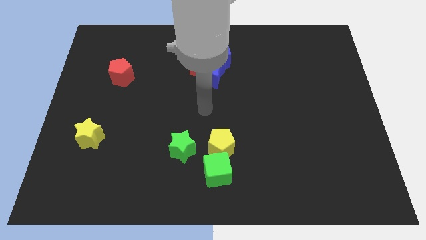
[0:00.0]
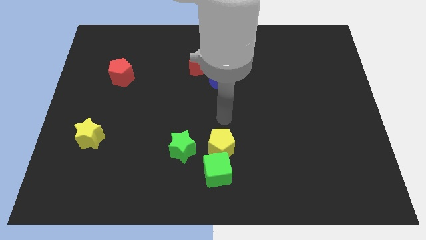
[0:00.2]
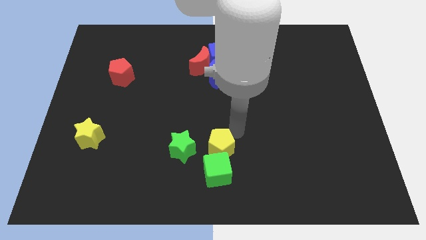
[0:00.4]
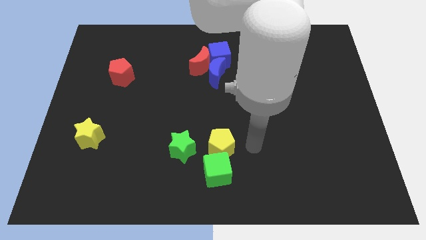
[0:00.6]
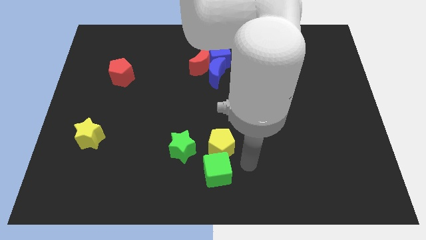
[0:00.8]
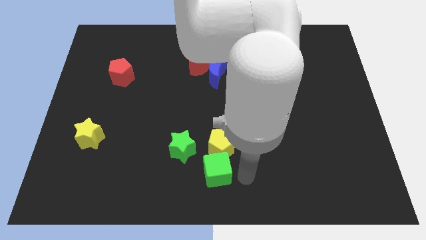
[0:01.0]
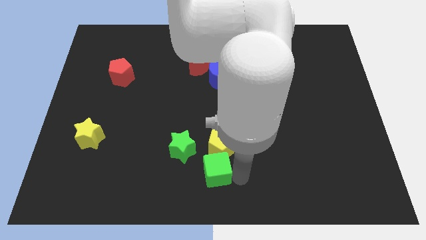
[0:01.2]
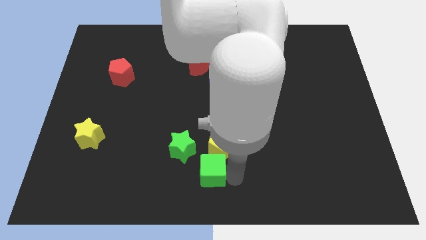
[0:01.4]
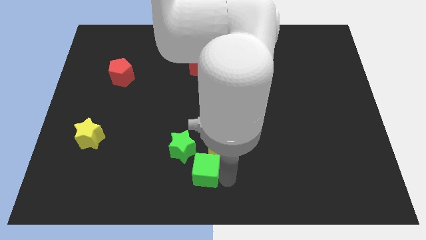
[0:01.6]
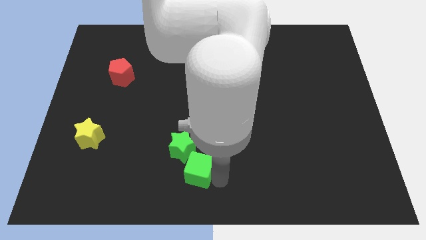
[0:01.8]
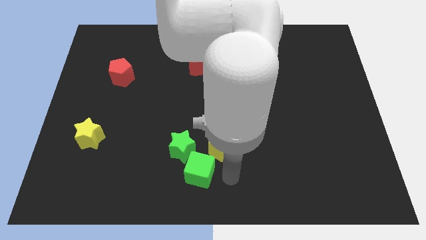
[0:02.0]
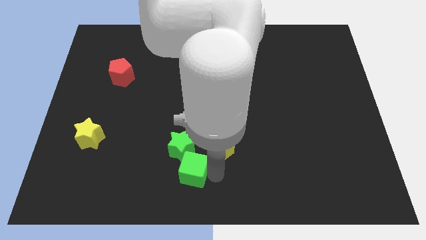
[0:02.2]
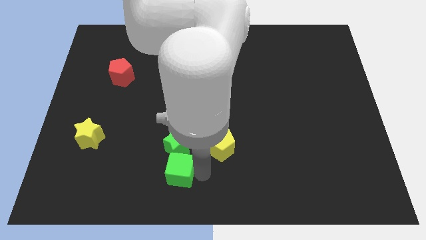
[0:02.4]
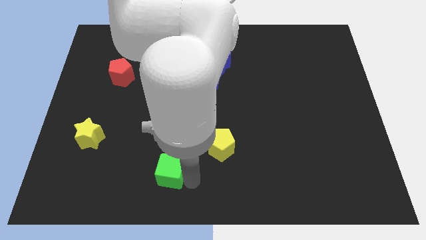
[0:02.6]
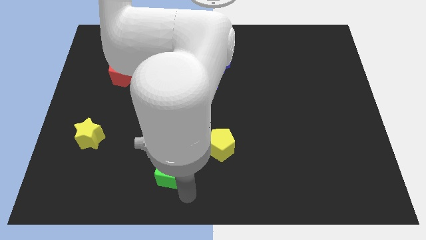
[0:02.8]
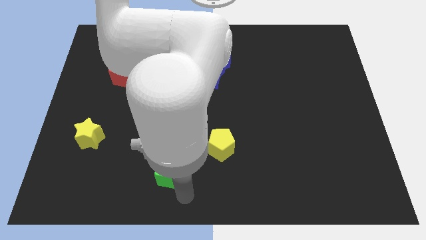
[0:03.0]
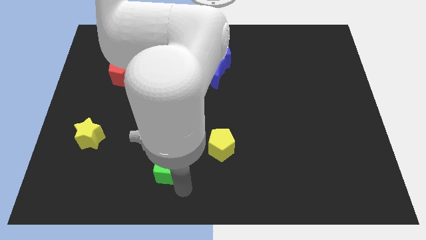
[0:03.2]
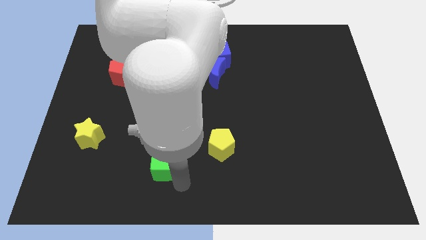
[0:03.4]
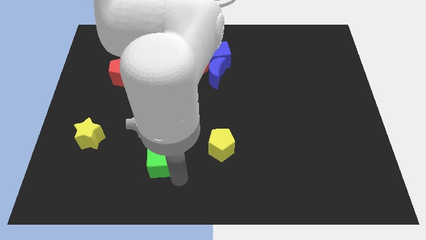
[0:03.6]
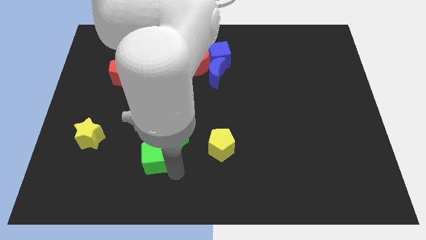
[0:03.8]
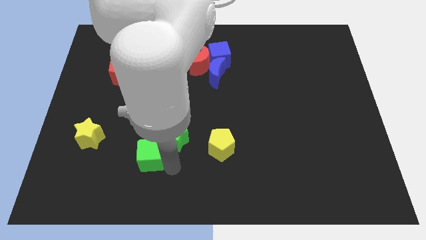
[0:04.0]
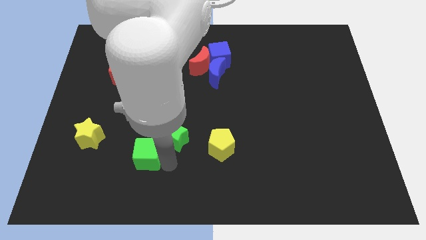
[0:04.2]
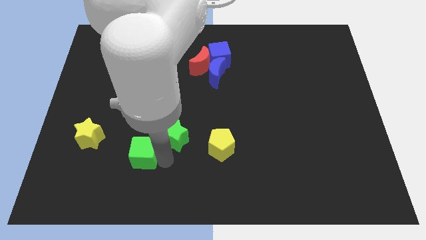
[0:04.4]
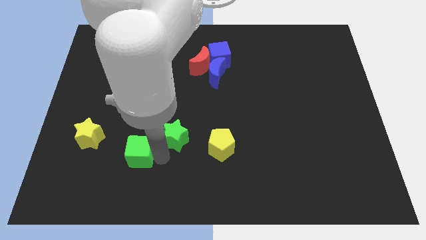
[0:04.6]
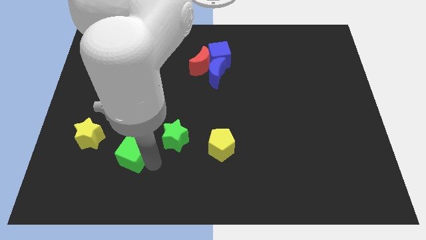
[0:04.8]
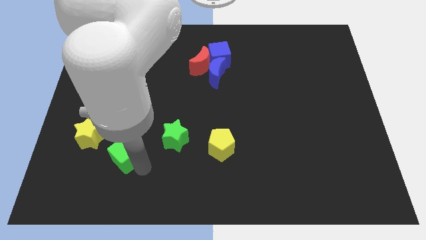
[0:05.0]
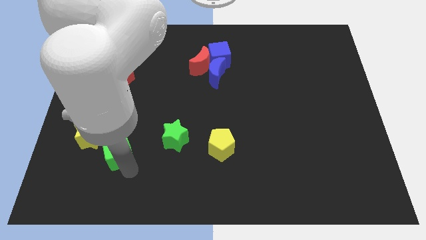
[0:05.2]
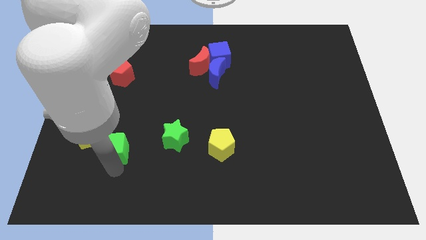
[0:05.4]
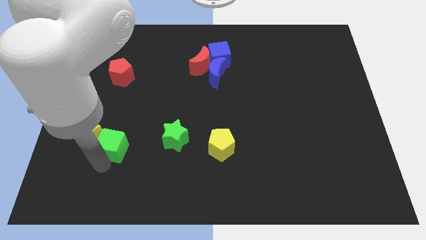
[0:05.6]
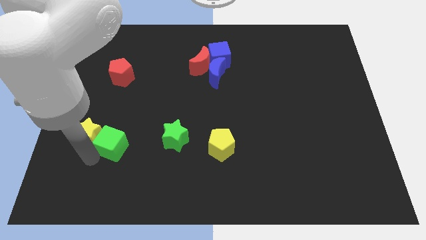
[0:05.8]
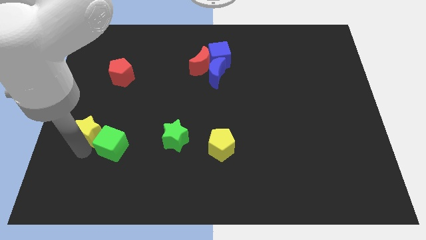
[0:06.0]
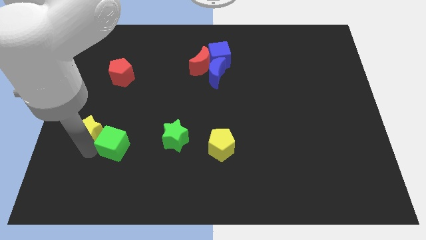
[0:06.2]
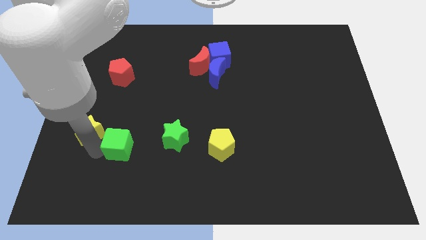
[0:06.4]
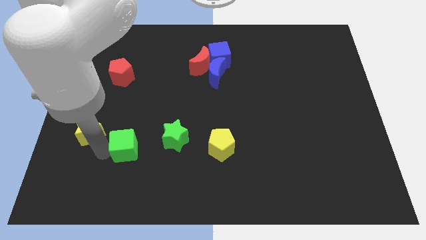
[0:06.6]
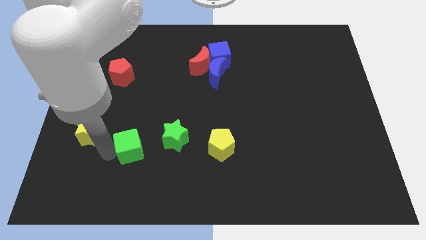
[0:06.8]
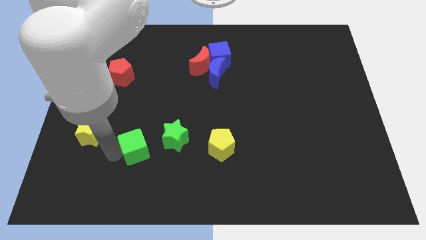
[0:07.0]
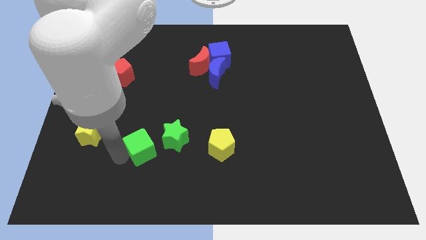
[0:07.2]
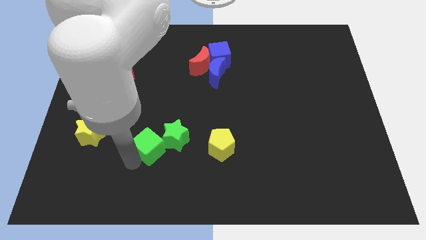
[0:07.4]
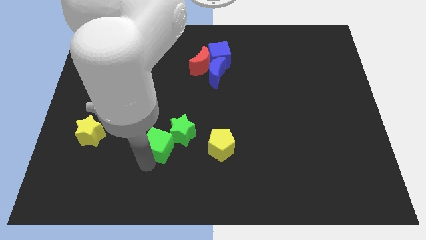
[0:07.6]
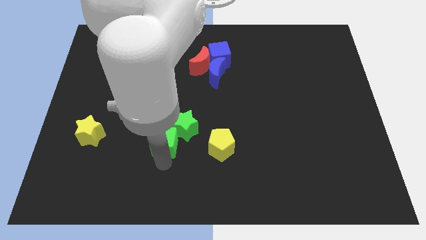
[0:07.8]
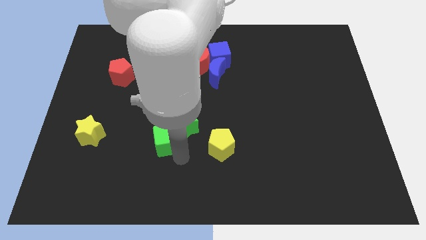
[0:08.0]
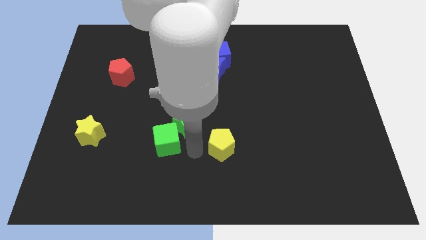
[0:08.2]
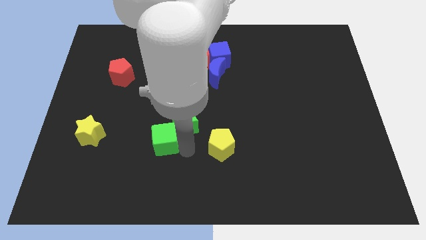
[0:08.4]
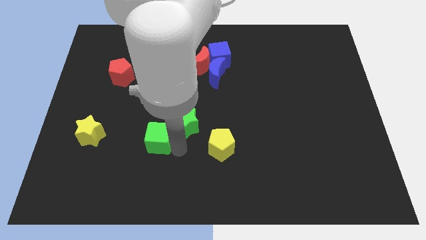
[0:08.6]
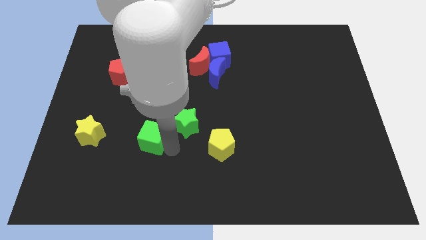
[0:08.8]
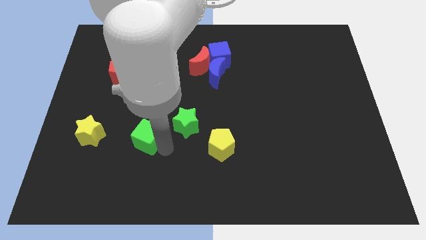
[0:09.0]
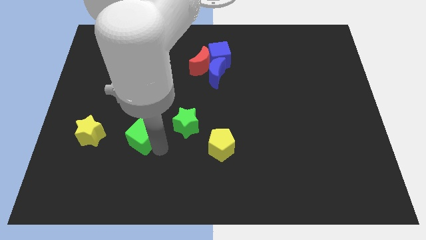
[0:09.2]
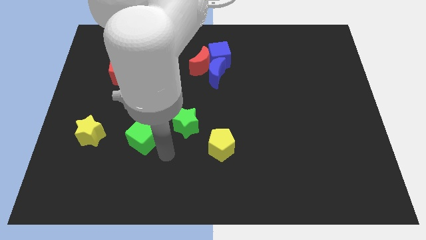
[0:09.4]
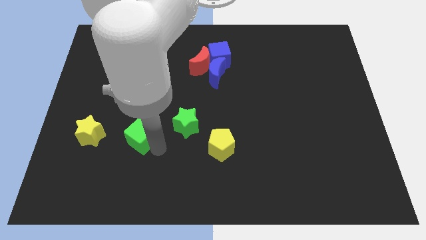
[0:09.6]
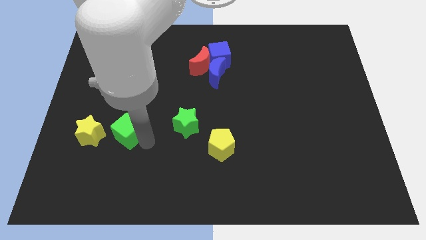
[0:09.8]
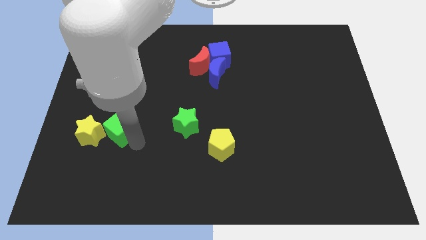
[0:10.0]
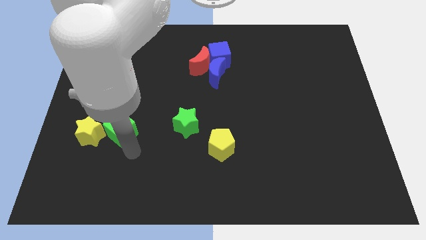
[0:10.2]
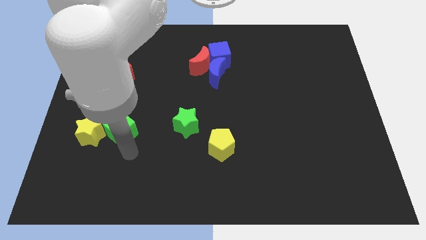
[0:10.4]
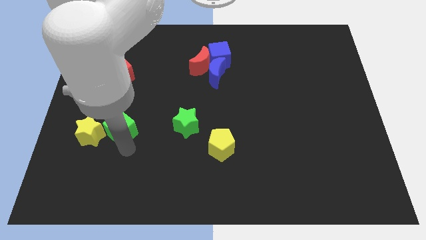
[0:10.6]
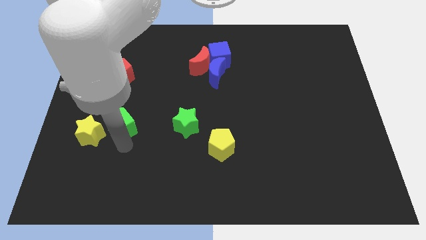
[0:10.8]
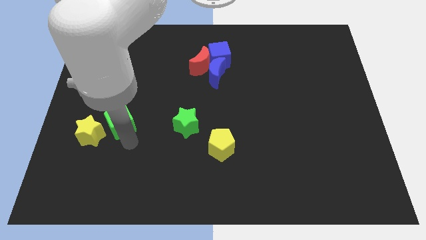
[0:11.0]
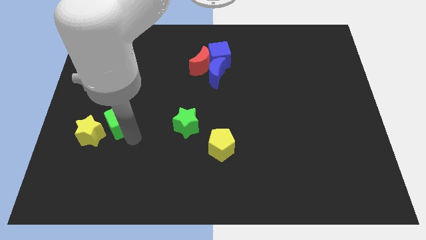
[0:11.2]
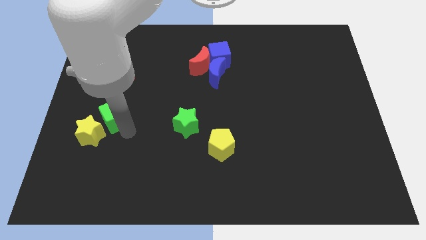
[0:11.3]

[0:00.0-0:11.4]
slide the green cube above the yellow star

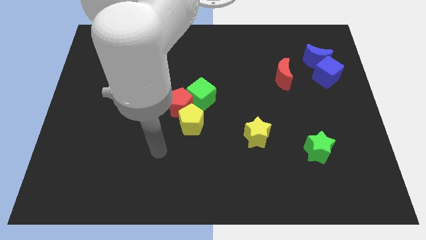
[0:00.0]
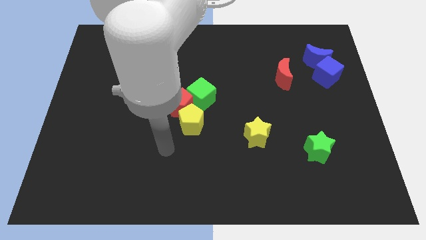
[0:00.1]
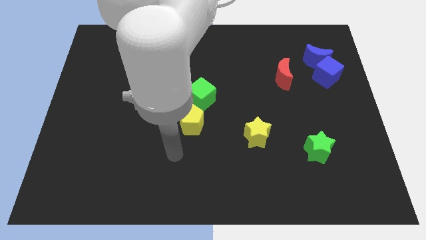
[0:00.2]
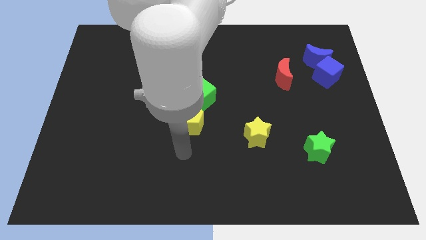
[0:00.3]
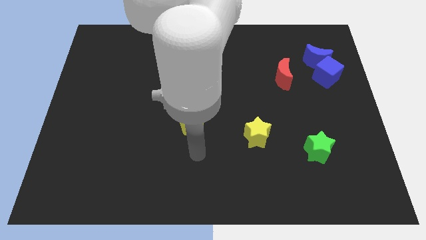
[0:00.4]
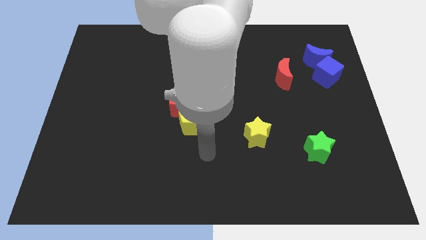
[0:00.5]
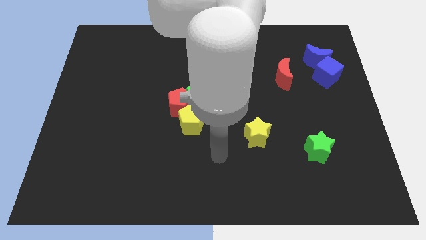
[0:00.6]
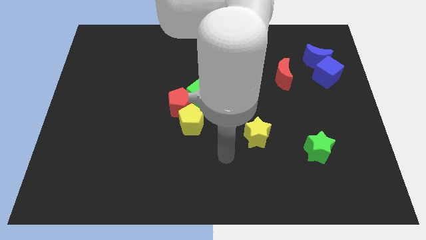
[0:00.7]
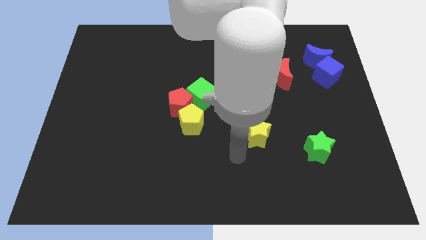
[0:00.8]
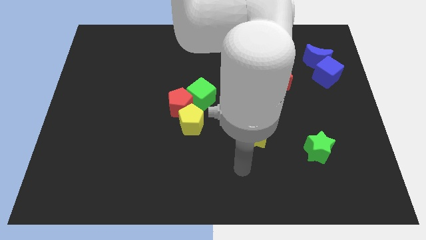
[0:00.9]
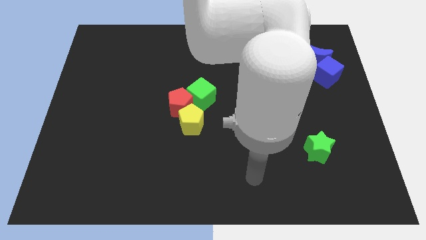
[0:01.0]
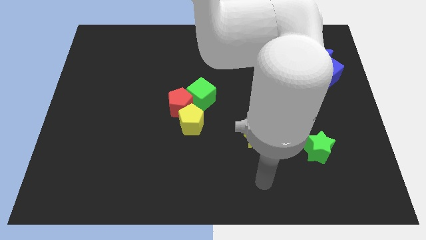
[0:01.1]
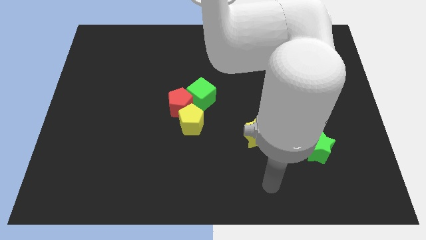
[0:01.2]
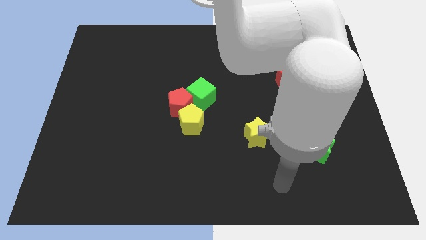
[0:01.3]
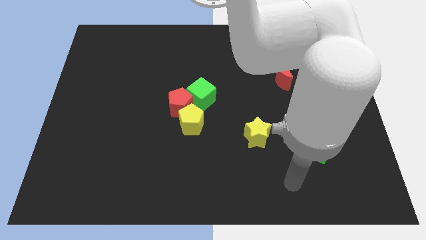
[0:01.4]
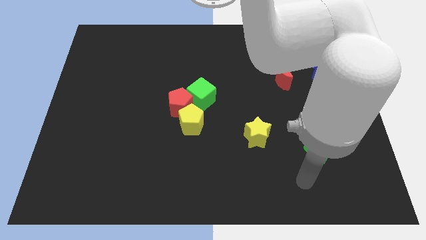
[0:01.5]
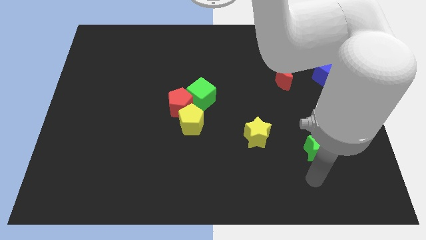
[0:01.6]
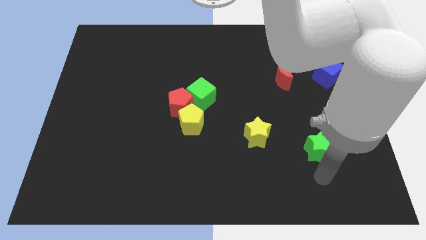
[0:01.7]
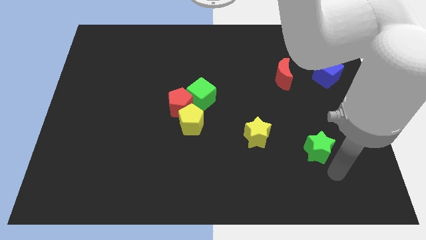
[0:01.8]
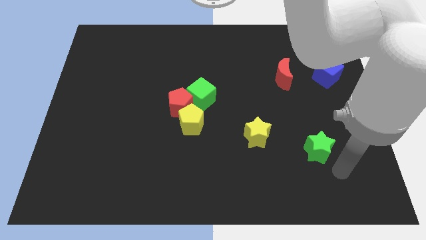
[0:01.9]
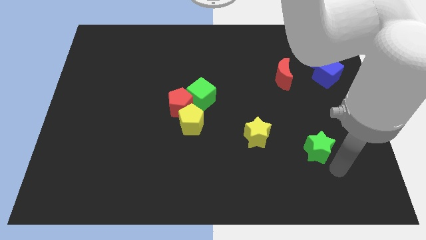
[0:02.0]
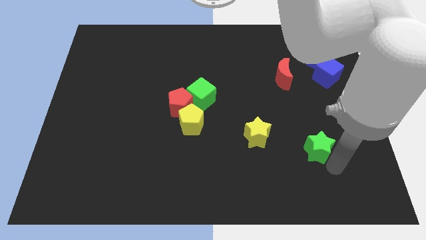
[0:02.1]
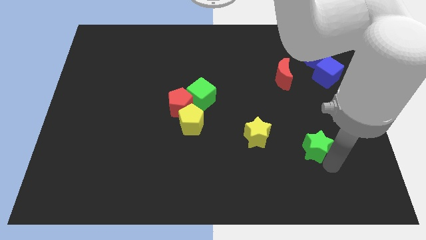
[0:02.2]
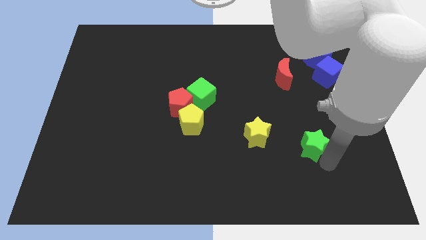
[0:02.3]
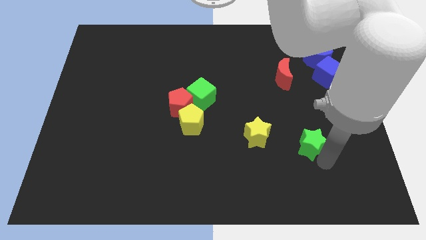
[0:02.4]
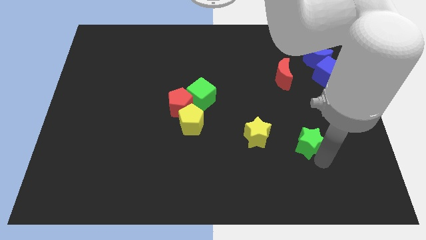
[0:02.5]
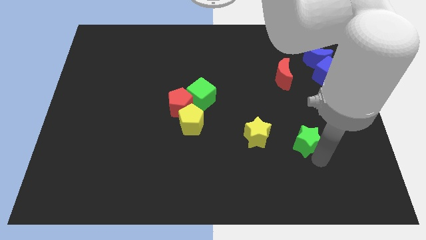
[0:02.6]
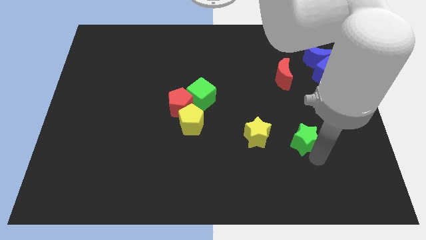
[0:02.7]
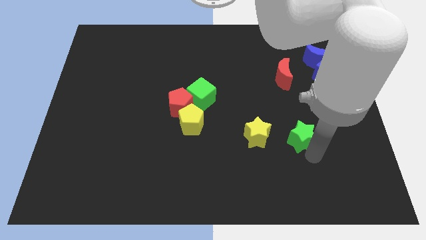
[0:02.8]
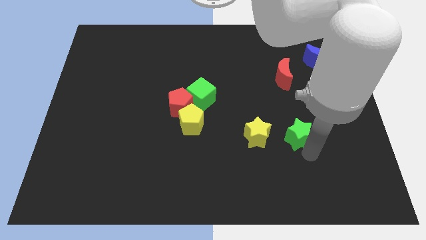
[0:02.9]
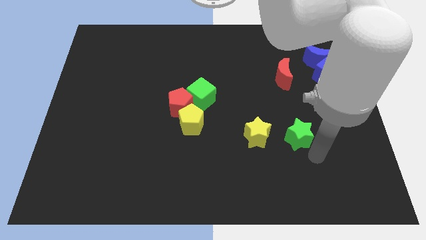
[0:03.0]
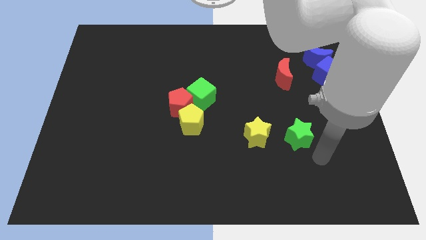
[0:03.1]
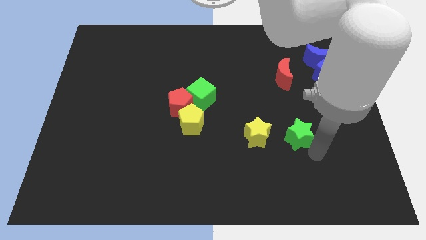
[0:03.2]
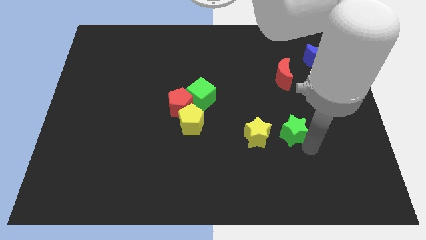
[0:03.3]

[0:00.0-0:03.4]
slide the green star diagonally up and to the right of the yellow star
